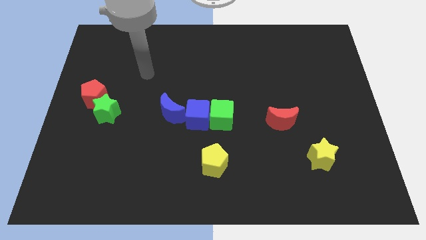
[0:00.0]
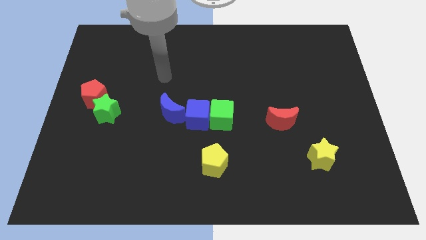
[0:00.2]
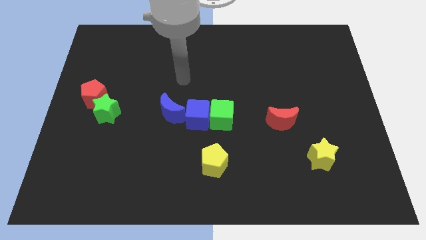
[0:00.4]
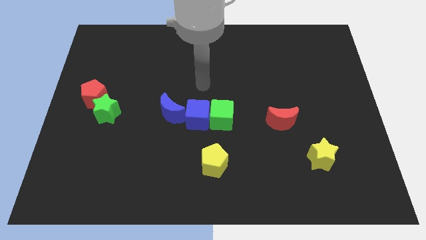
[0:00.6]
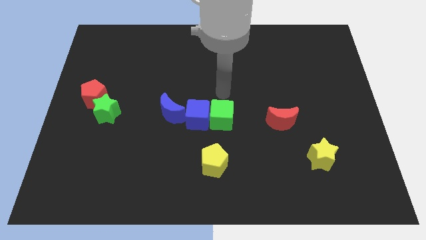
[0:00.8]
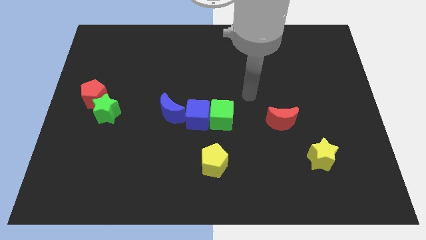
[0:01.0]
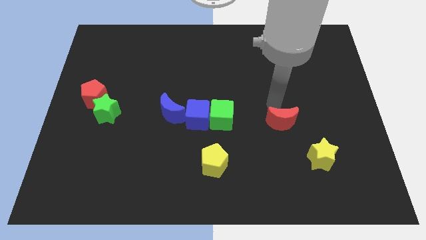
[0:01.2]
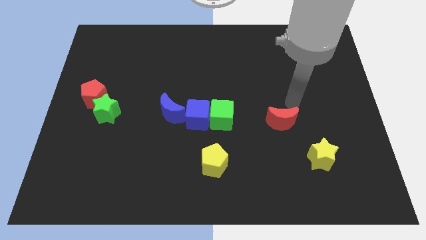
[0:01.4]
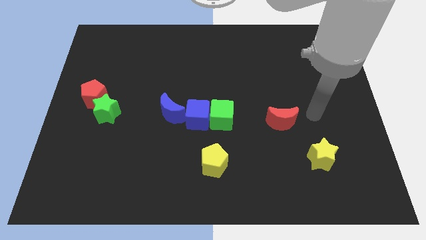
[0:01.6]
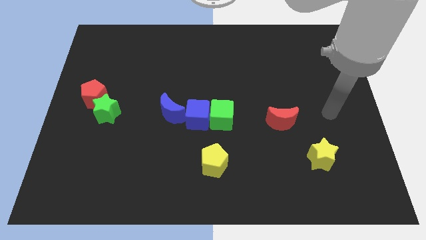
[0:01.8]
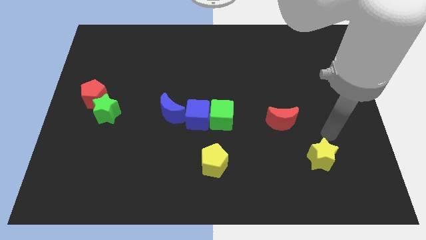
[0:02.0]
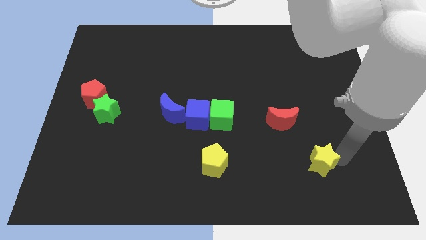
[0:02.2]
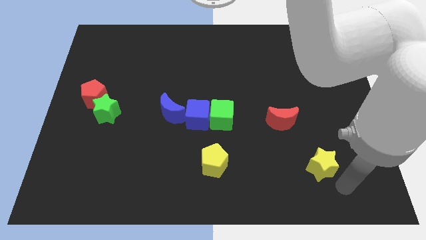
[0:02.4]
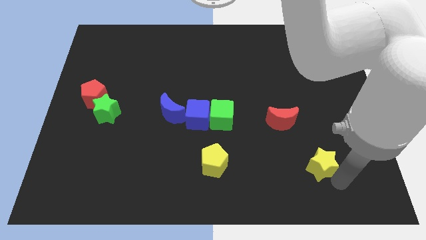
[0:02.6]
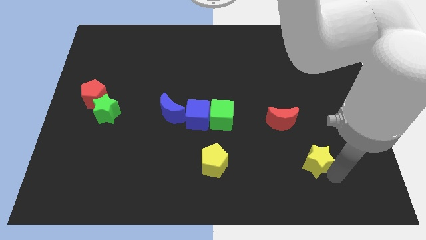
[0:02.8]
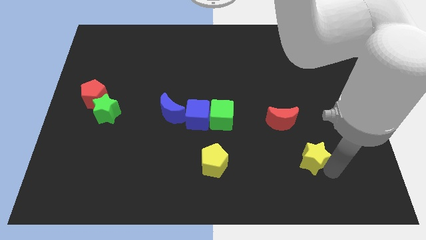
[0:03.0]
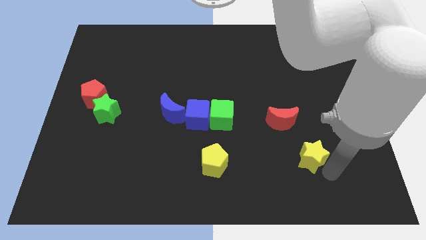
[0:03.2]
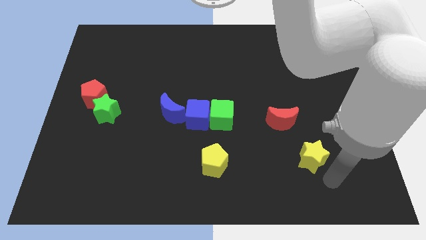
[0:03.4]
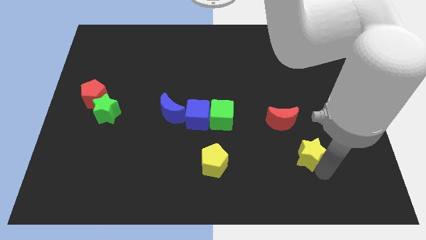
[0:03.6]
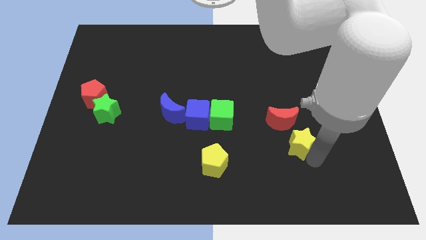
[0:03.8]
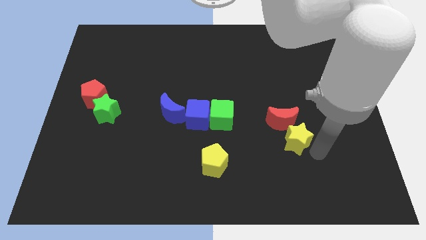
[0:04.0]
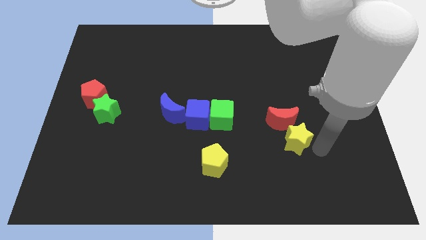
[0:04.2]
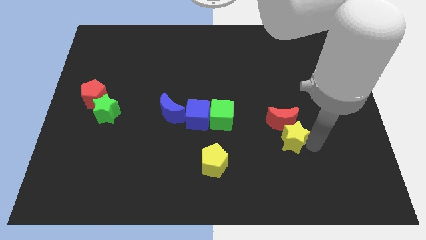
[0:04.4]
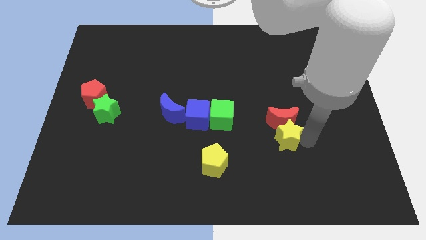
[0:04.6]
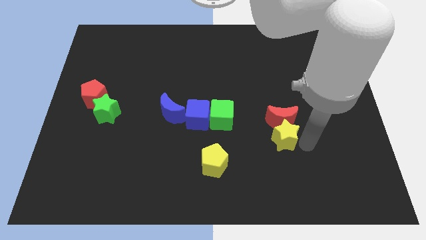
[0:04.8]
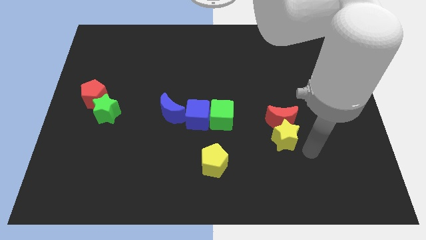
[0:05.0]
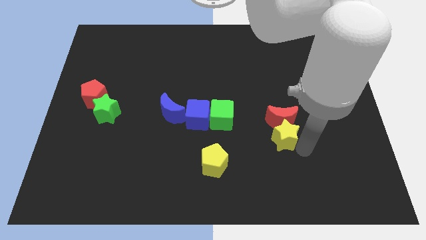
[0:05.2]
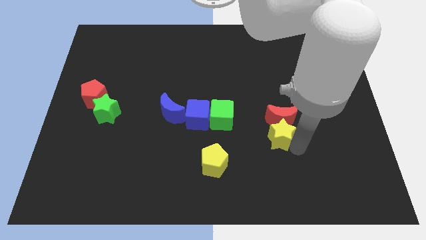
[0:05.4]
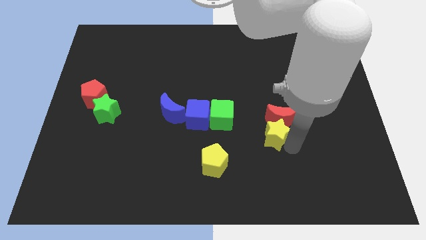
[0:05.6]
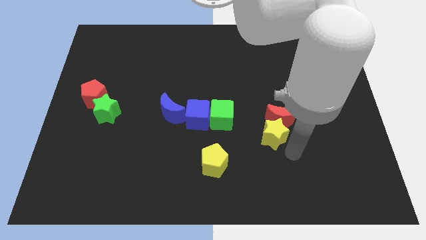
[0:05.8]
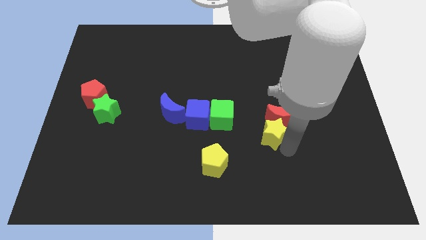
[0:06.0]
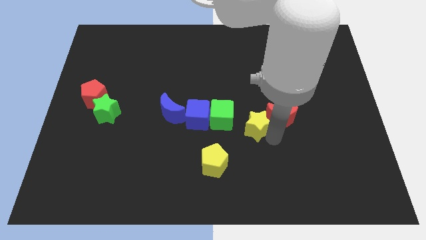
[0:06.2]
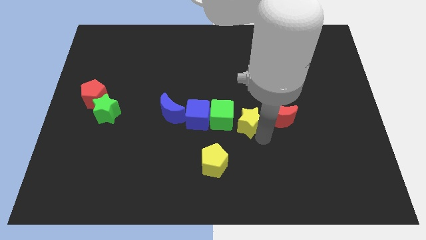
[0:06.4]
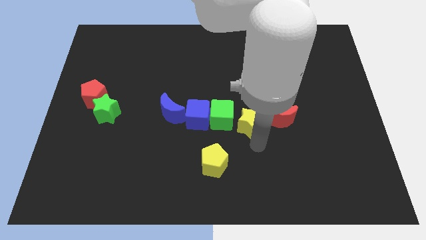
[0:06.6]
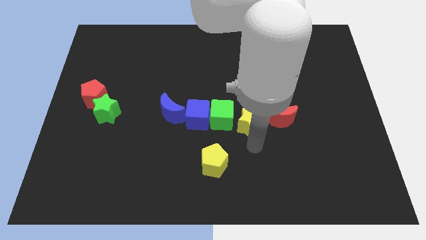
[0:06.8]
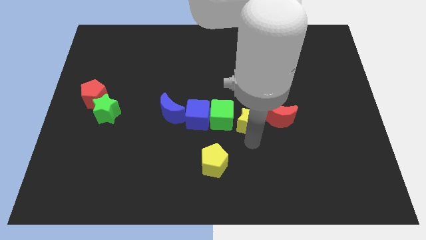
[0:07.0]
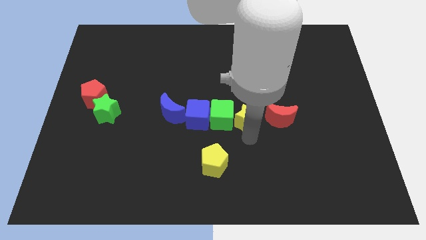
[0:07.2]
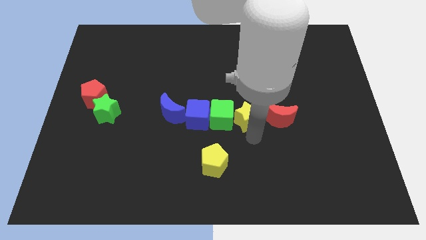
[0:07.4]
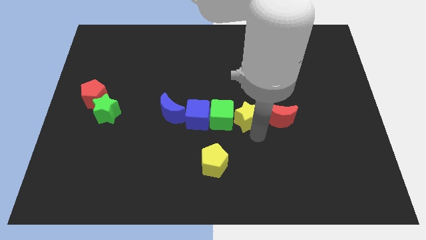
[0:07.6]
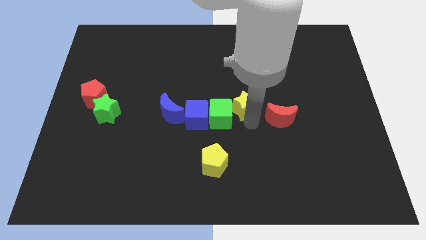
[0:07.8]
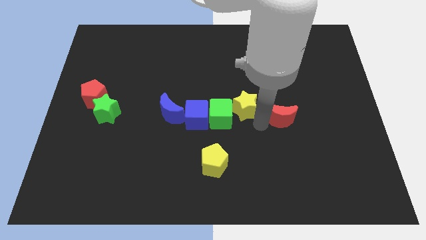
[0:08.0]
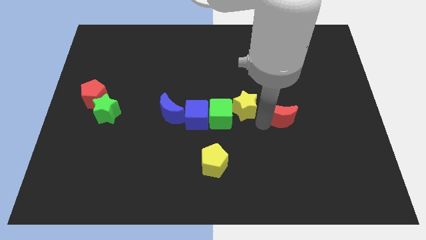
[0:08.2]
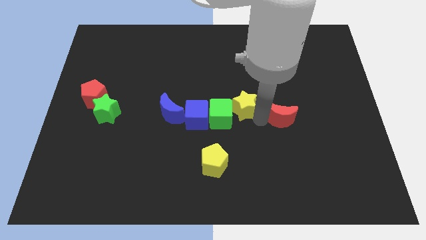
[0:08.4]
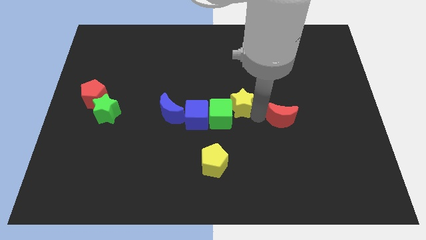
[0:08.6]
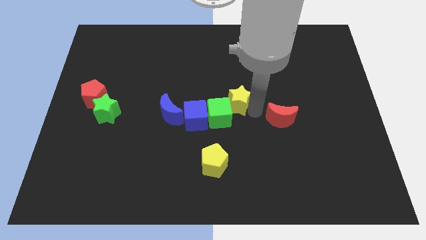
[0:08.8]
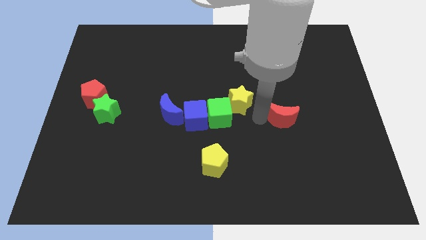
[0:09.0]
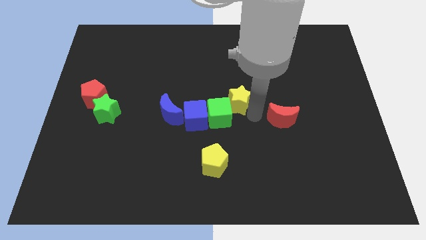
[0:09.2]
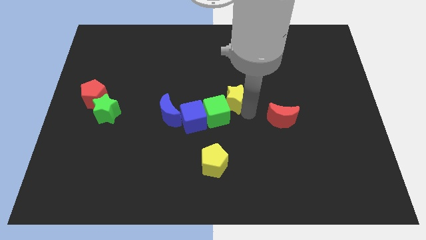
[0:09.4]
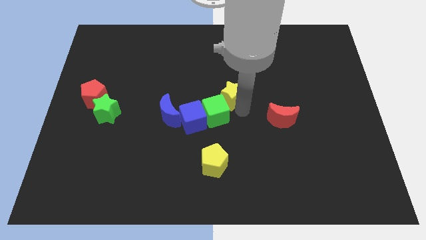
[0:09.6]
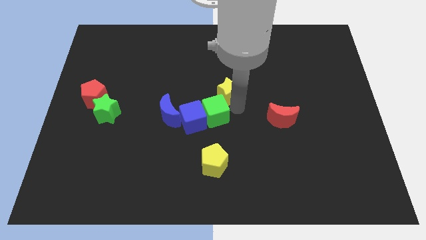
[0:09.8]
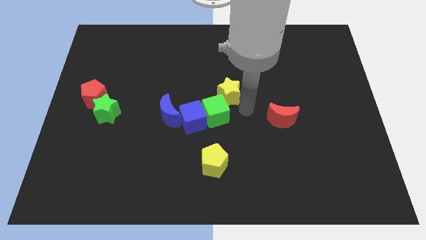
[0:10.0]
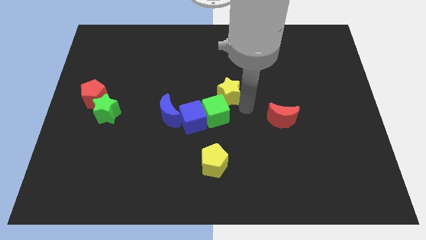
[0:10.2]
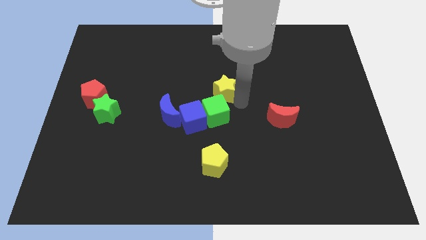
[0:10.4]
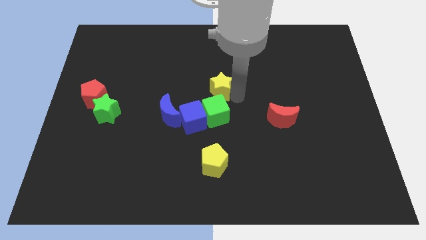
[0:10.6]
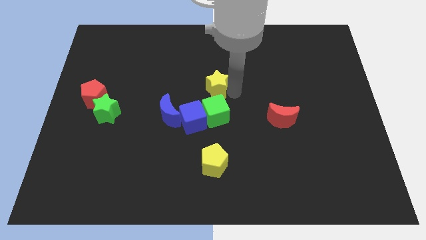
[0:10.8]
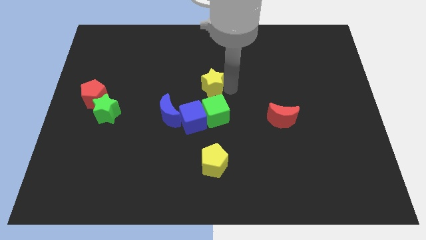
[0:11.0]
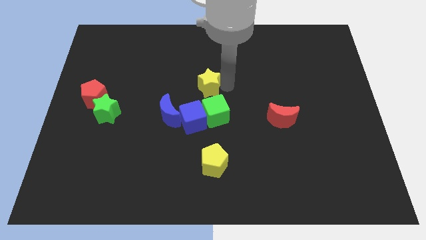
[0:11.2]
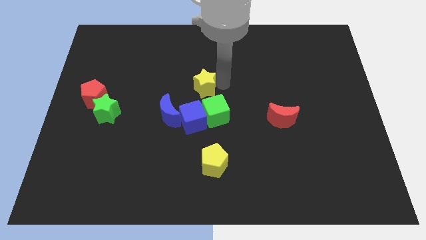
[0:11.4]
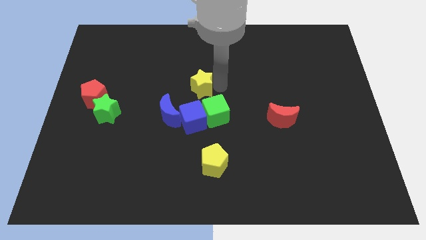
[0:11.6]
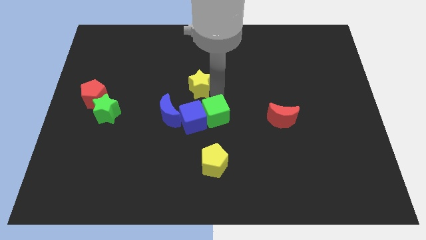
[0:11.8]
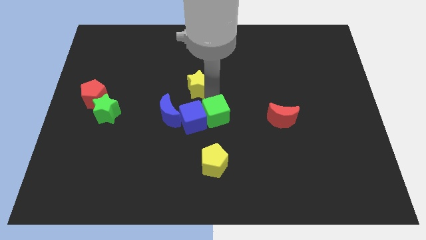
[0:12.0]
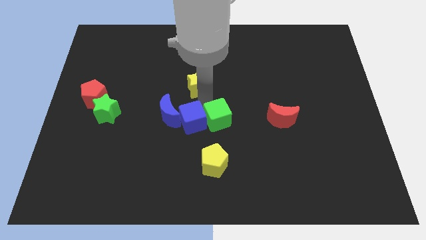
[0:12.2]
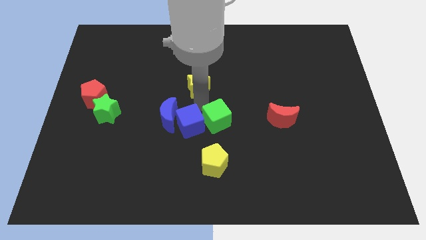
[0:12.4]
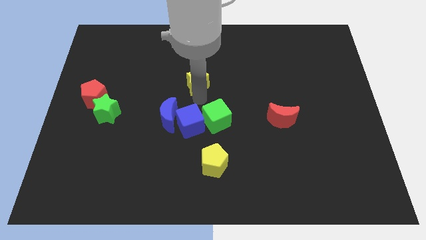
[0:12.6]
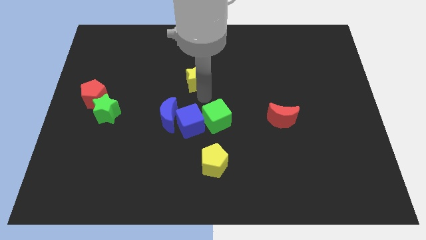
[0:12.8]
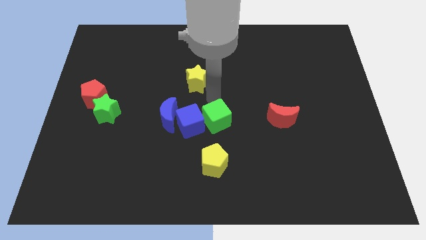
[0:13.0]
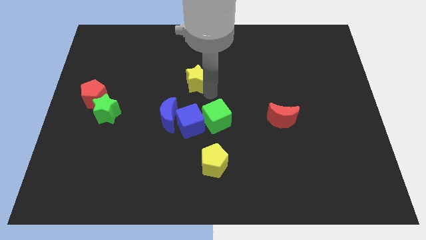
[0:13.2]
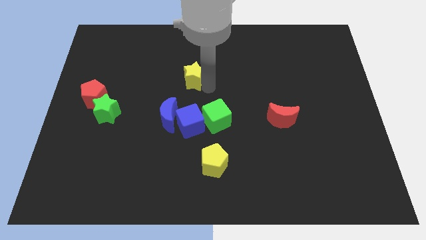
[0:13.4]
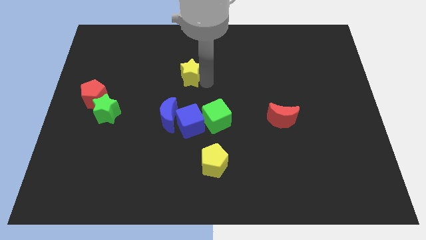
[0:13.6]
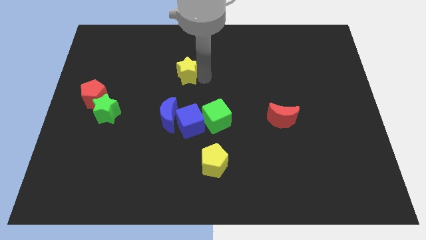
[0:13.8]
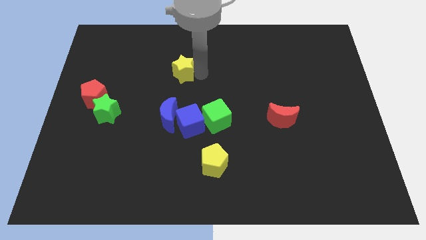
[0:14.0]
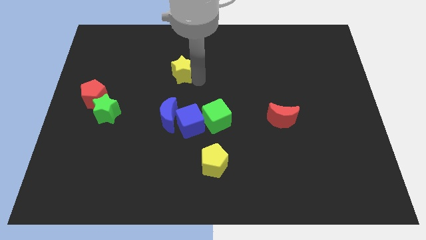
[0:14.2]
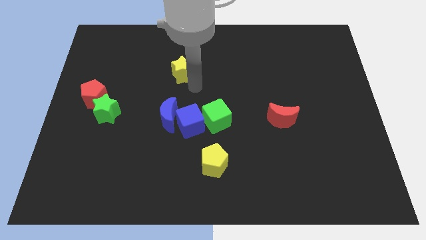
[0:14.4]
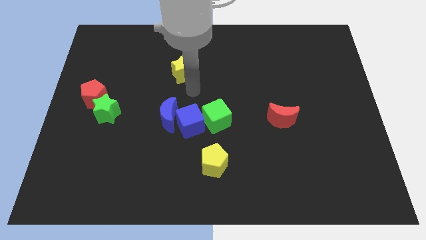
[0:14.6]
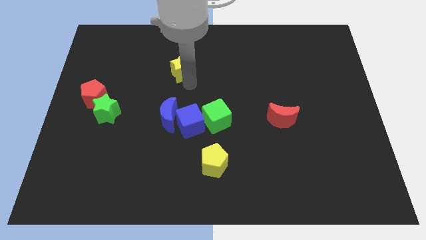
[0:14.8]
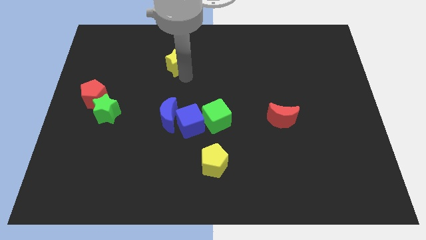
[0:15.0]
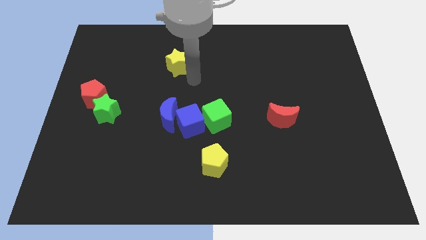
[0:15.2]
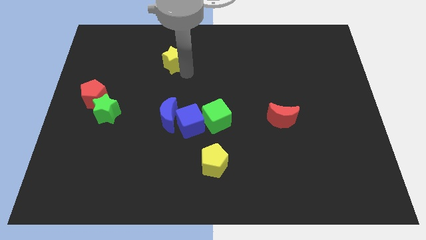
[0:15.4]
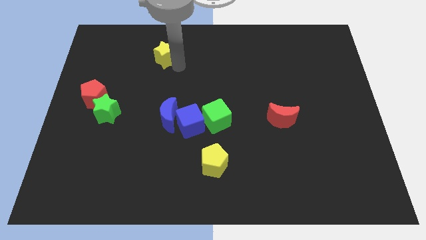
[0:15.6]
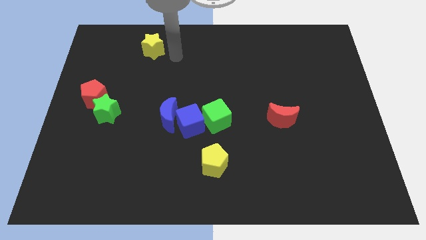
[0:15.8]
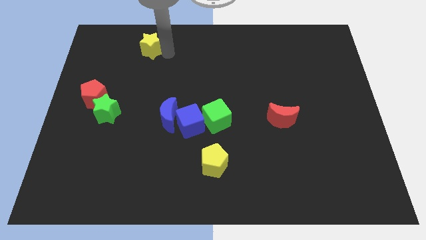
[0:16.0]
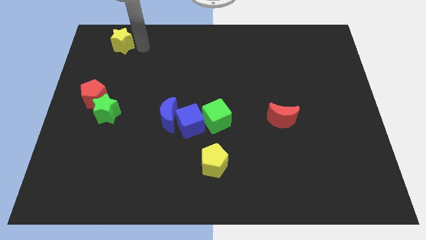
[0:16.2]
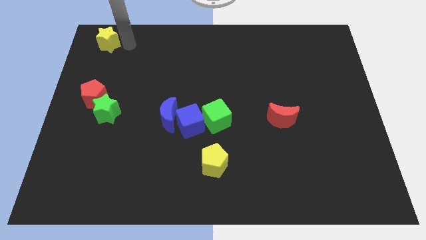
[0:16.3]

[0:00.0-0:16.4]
put the yellow star to the upper left corner
